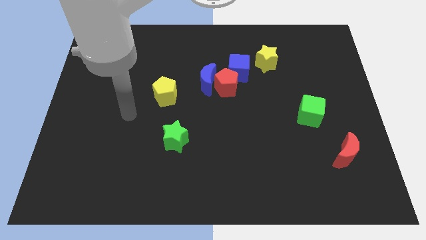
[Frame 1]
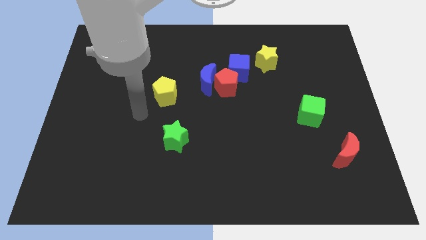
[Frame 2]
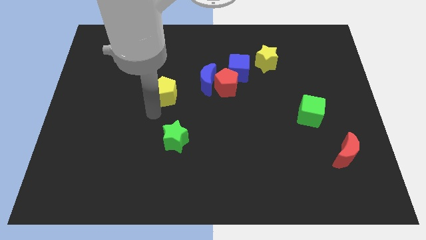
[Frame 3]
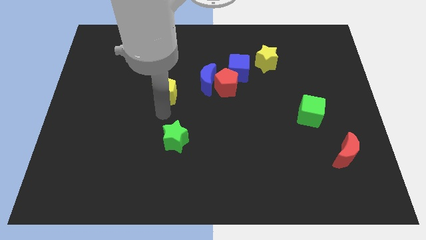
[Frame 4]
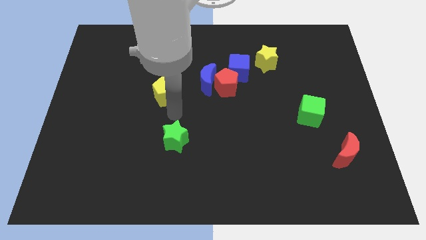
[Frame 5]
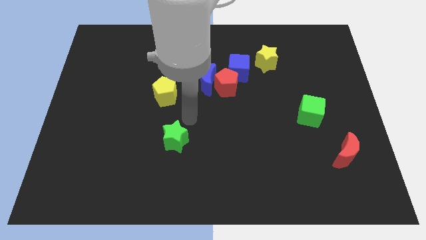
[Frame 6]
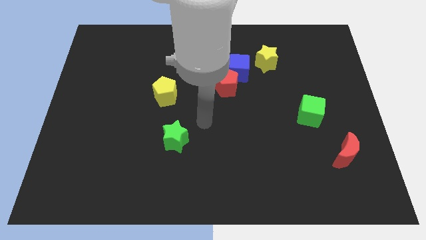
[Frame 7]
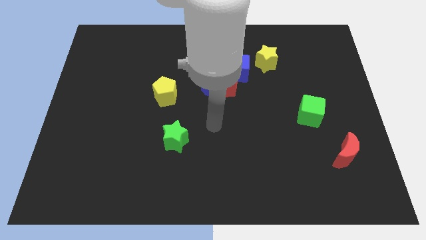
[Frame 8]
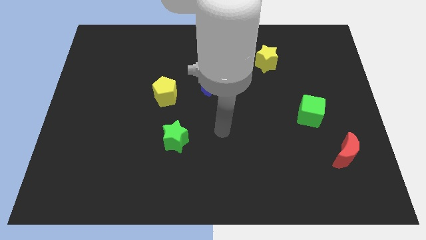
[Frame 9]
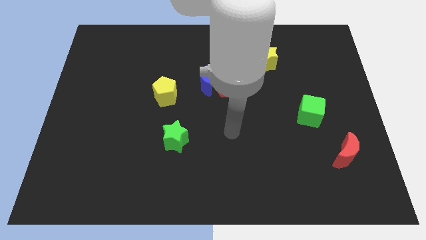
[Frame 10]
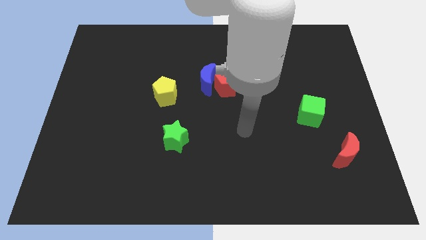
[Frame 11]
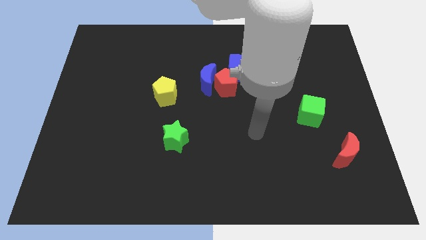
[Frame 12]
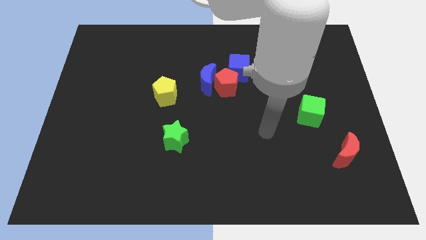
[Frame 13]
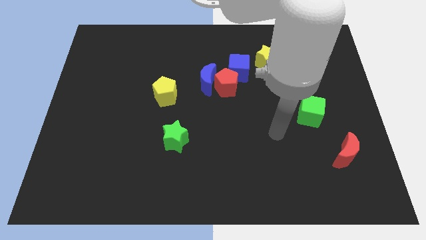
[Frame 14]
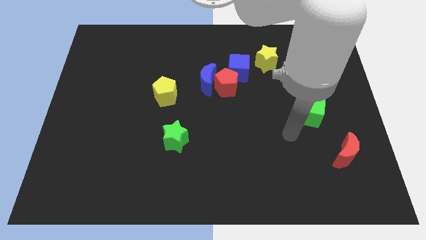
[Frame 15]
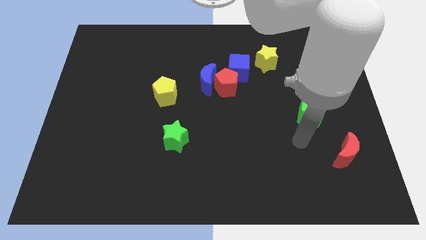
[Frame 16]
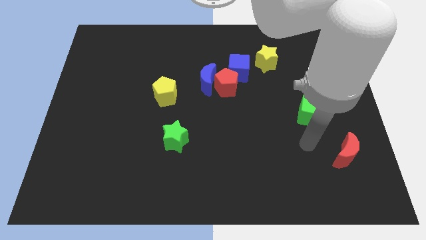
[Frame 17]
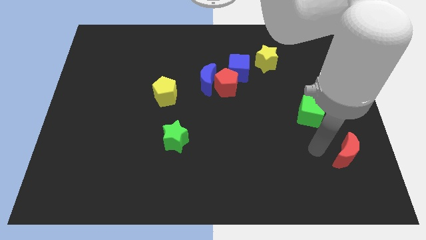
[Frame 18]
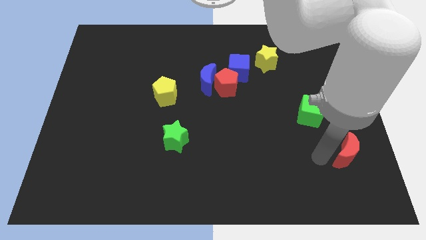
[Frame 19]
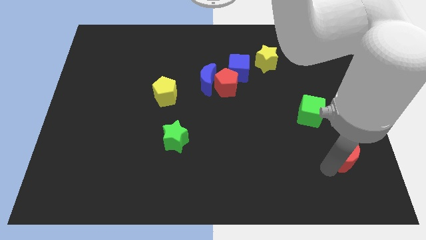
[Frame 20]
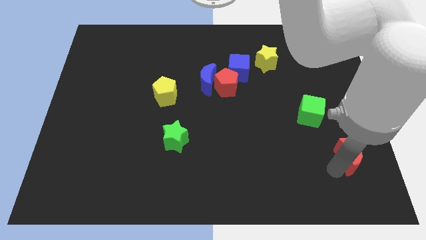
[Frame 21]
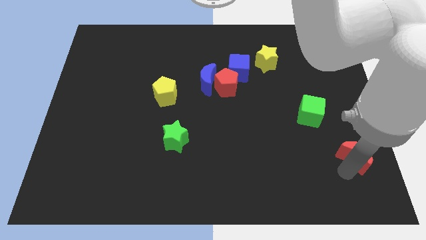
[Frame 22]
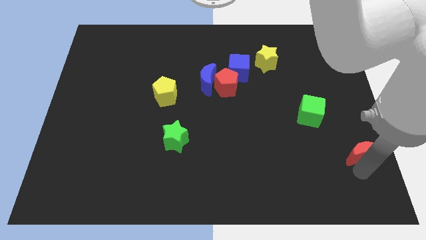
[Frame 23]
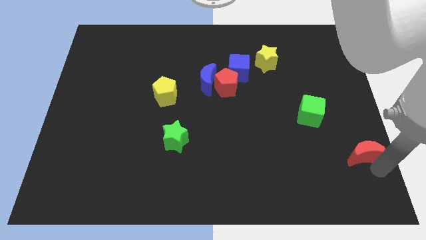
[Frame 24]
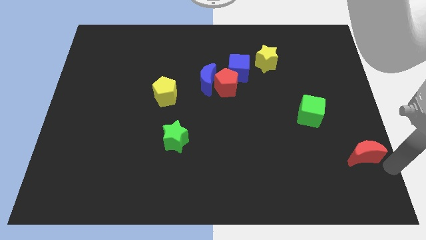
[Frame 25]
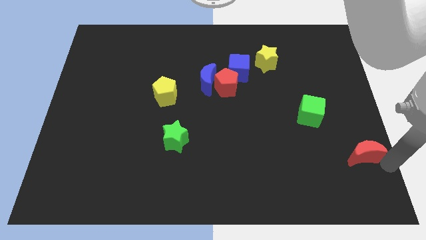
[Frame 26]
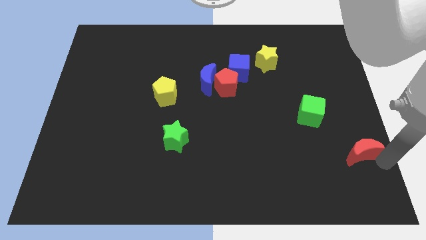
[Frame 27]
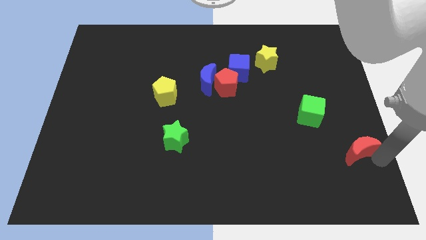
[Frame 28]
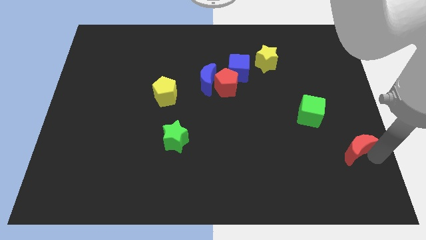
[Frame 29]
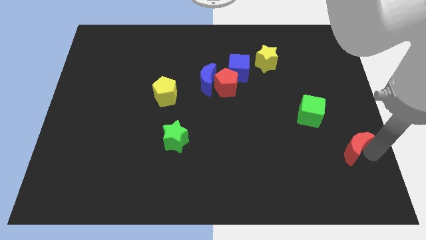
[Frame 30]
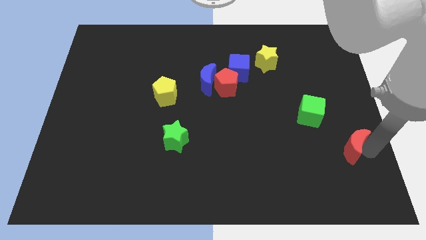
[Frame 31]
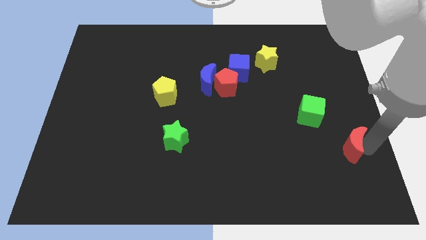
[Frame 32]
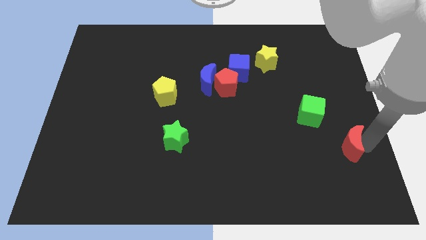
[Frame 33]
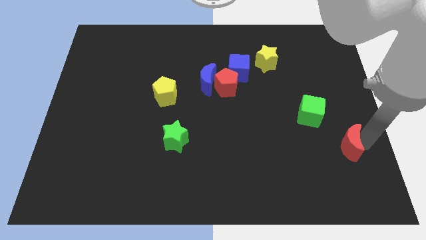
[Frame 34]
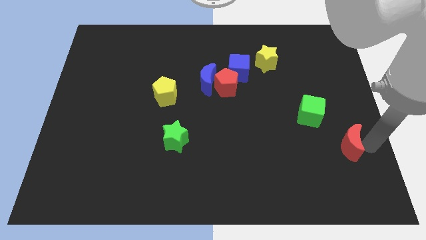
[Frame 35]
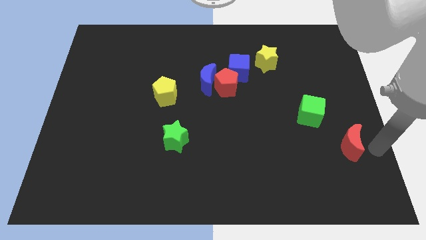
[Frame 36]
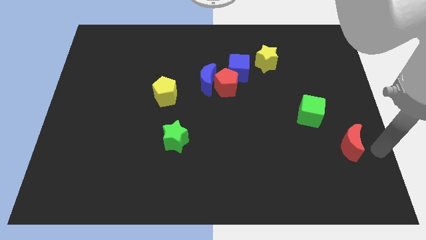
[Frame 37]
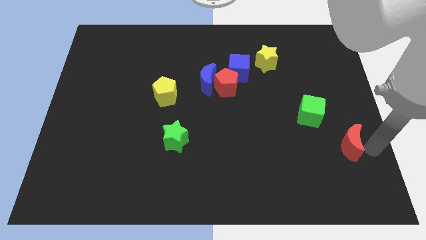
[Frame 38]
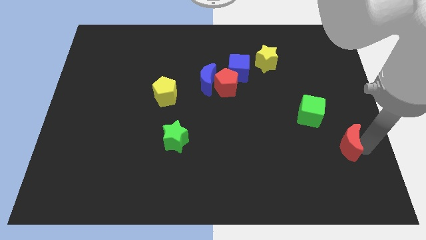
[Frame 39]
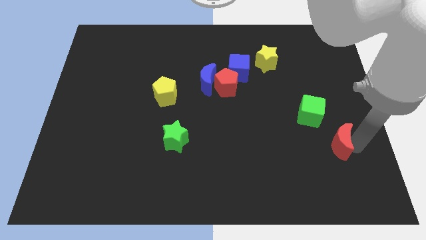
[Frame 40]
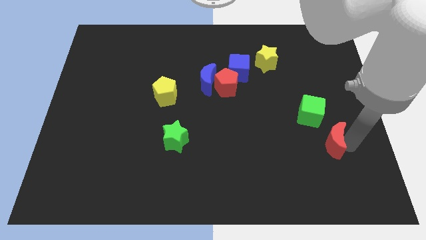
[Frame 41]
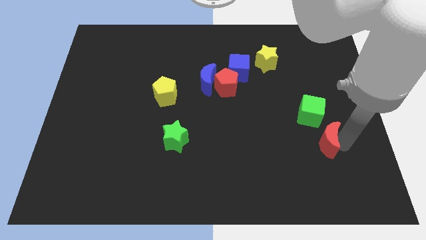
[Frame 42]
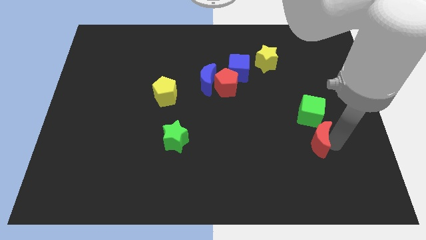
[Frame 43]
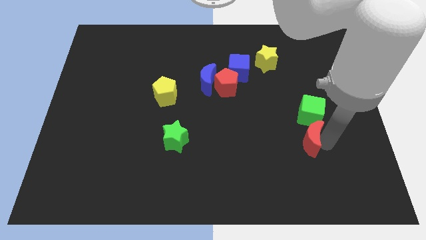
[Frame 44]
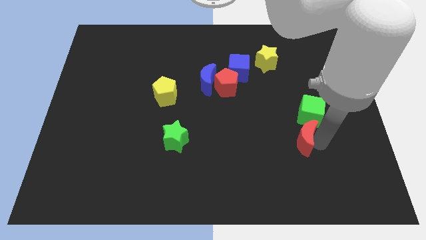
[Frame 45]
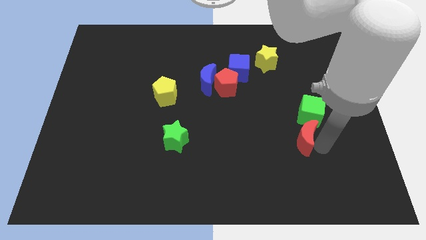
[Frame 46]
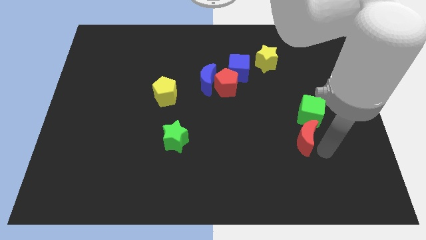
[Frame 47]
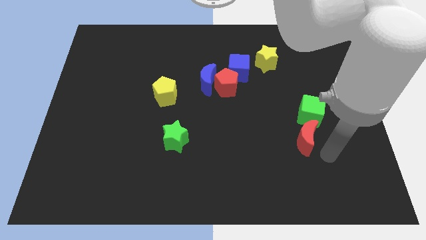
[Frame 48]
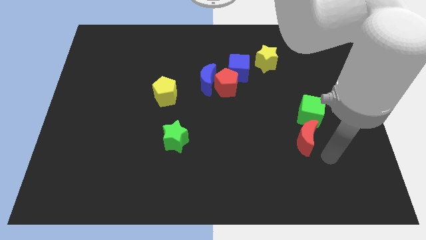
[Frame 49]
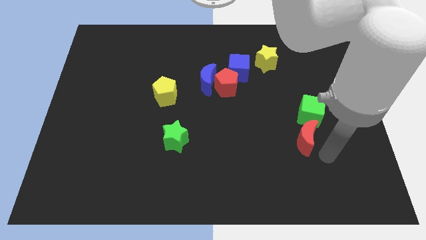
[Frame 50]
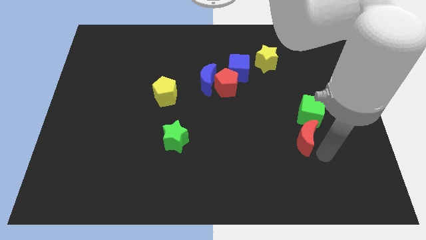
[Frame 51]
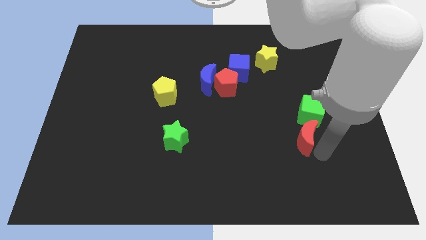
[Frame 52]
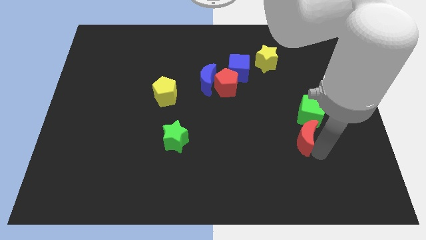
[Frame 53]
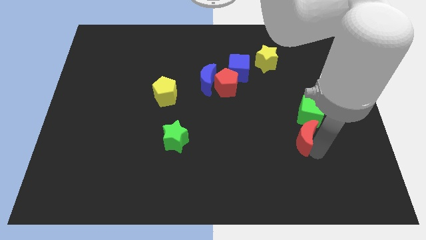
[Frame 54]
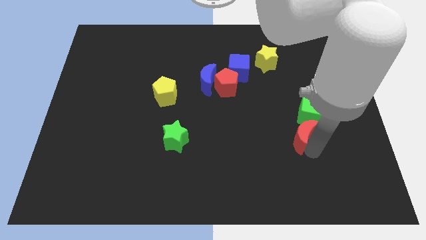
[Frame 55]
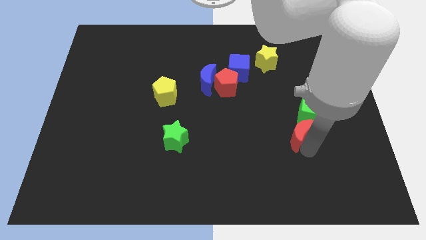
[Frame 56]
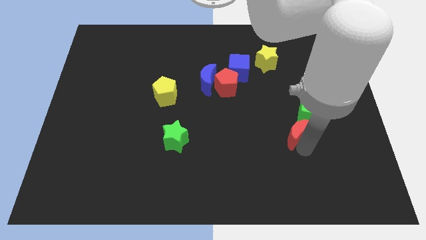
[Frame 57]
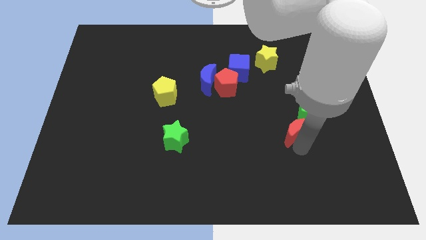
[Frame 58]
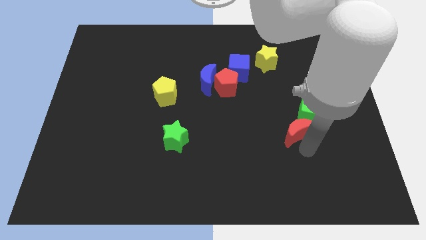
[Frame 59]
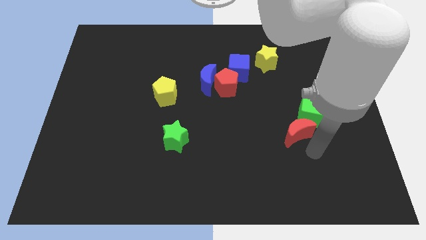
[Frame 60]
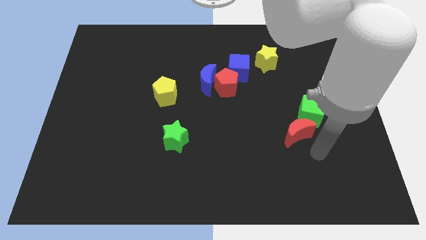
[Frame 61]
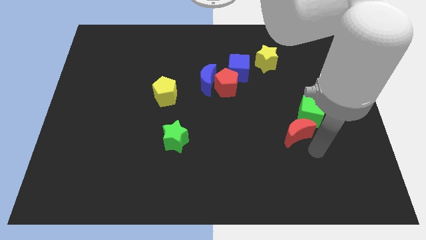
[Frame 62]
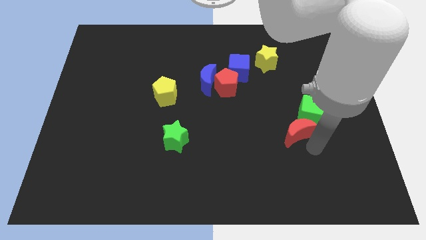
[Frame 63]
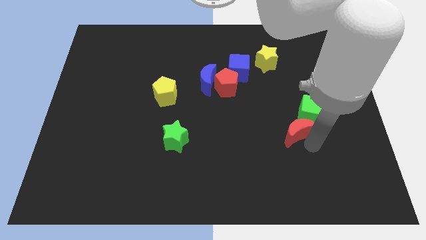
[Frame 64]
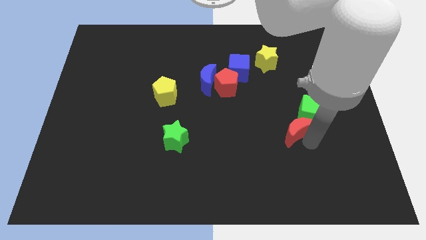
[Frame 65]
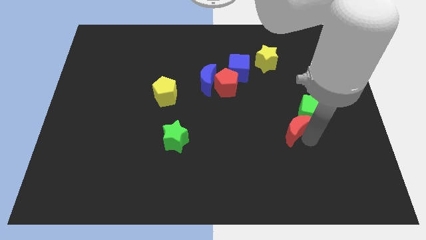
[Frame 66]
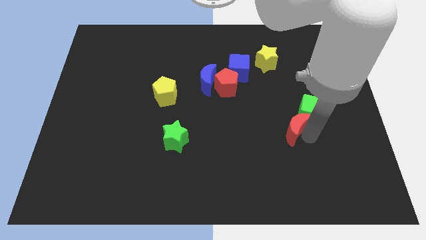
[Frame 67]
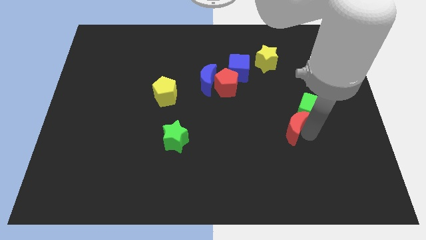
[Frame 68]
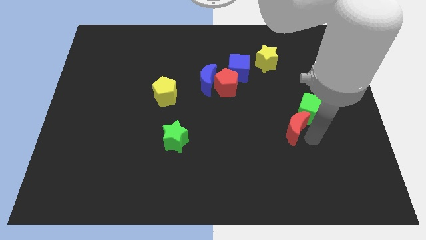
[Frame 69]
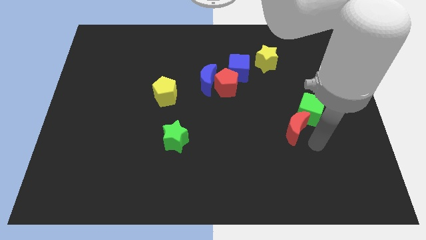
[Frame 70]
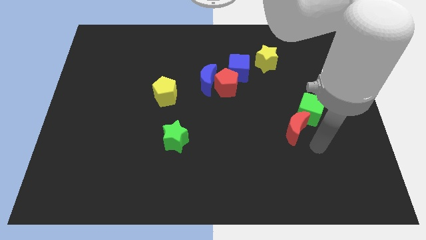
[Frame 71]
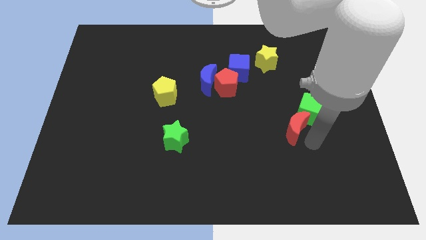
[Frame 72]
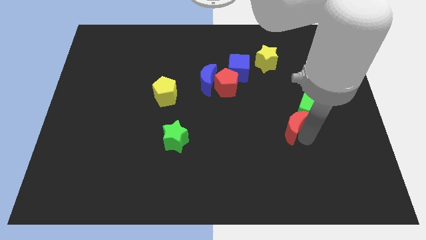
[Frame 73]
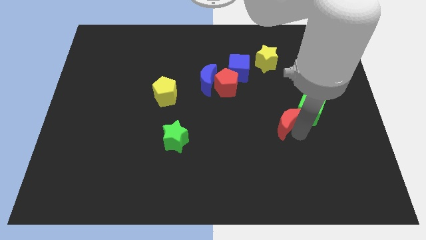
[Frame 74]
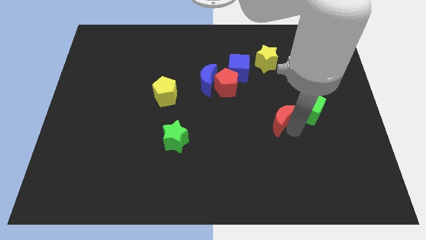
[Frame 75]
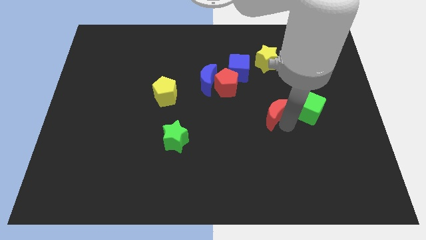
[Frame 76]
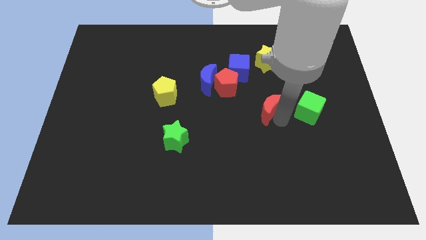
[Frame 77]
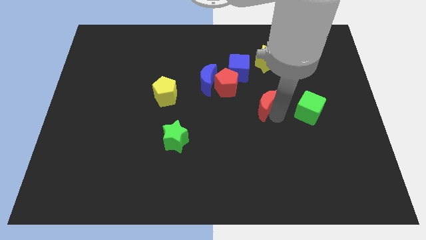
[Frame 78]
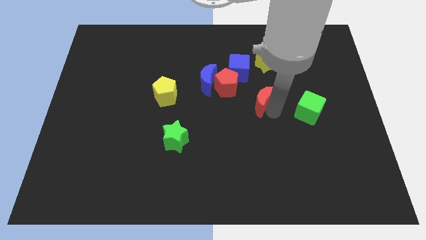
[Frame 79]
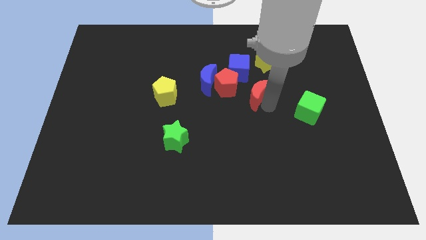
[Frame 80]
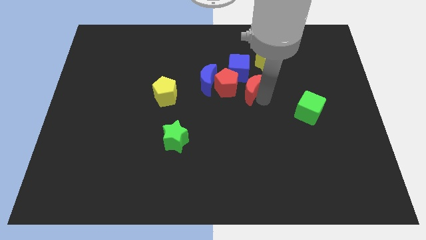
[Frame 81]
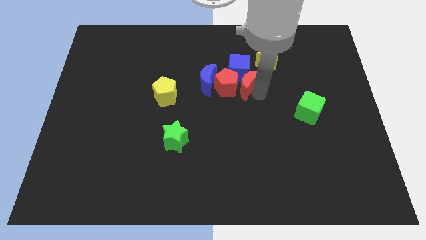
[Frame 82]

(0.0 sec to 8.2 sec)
push the red moon close to the red pentagon
